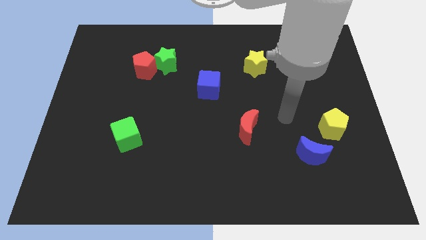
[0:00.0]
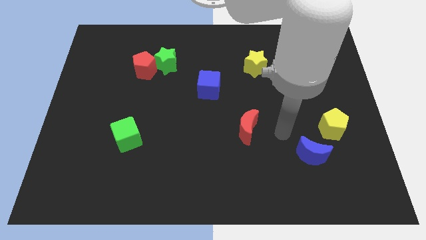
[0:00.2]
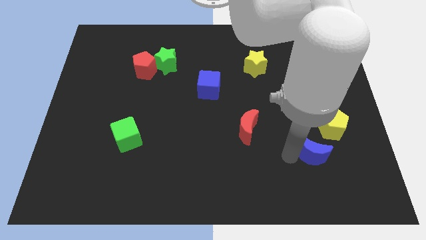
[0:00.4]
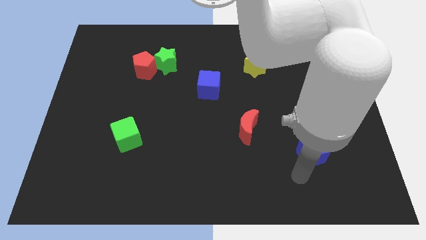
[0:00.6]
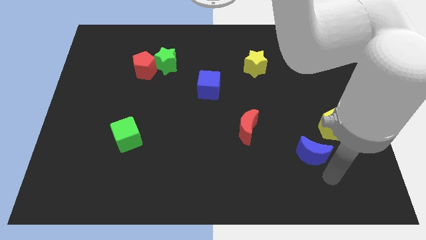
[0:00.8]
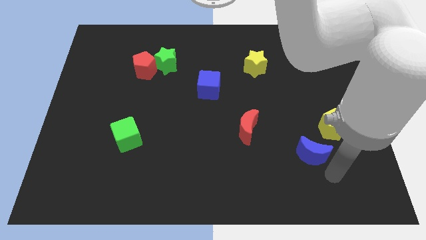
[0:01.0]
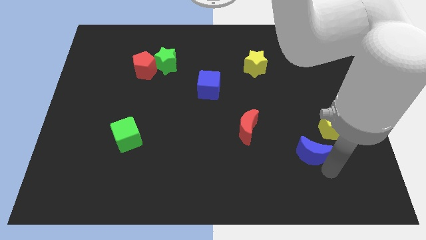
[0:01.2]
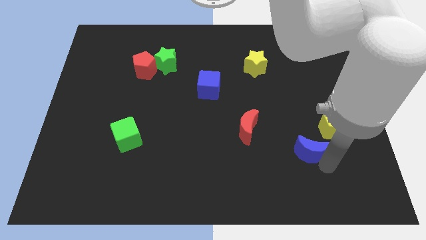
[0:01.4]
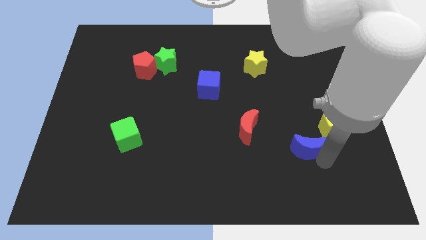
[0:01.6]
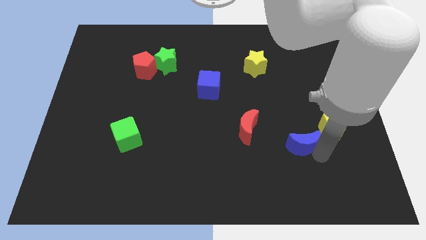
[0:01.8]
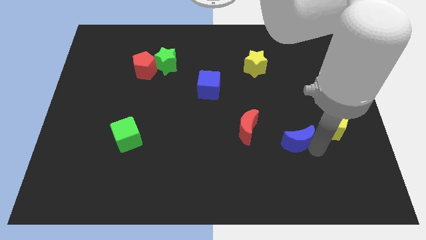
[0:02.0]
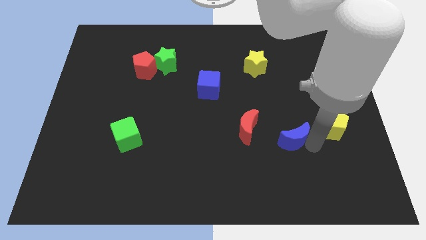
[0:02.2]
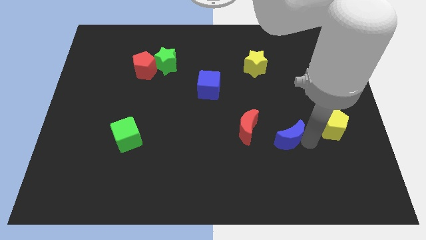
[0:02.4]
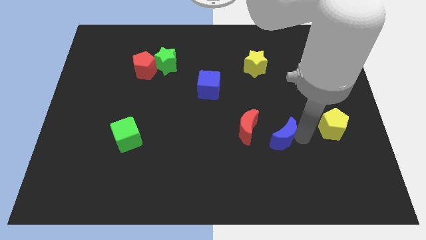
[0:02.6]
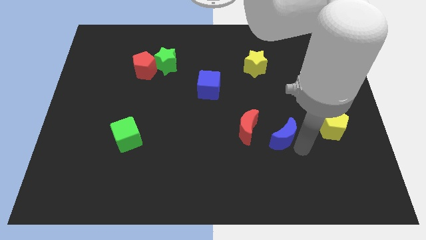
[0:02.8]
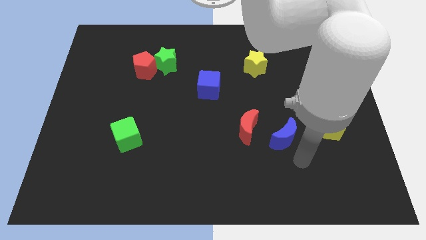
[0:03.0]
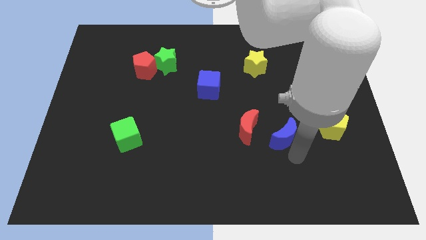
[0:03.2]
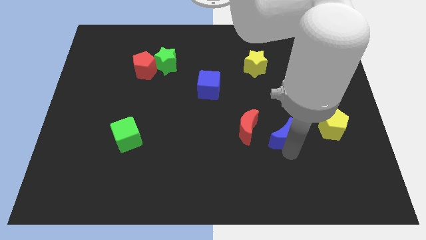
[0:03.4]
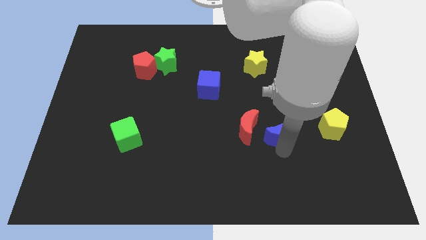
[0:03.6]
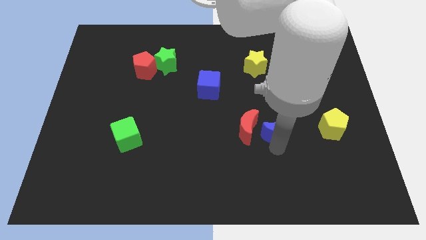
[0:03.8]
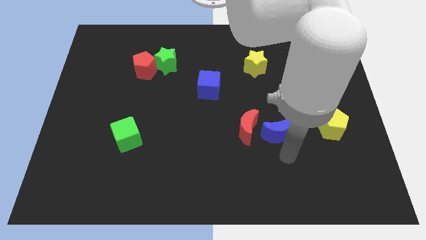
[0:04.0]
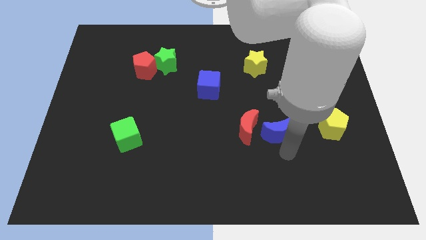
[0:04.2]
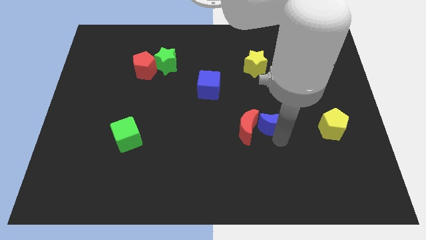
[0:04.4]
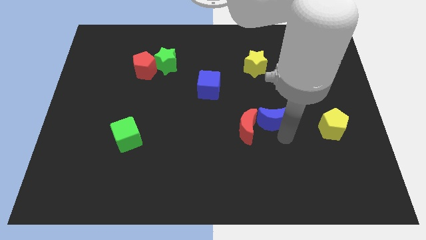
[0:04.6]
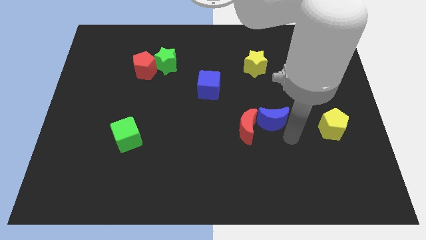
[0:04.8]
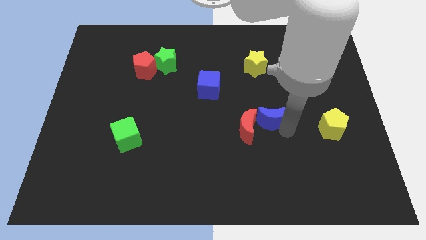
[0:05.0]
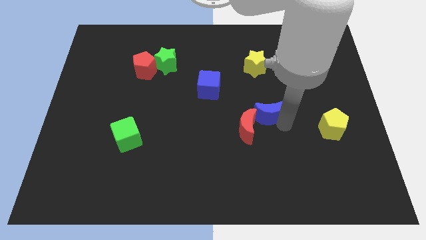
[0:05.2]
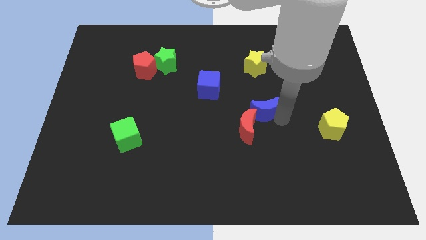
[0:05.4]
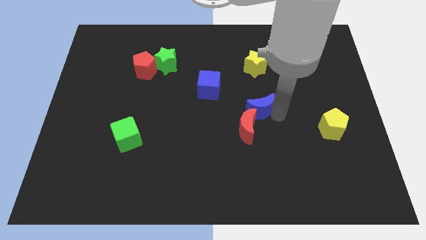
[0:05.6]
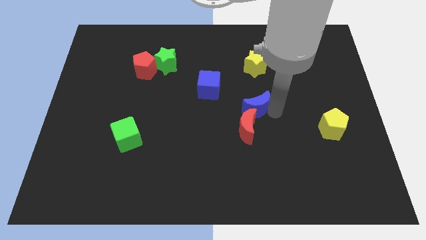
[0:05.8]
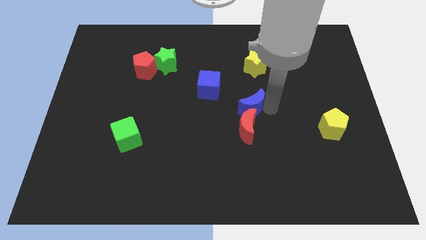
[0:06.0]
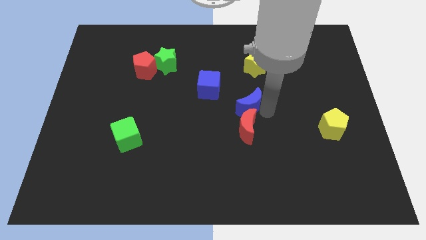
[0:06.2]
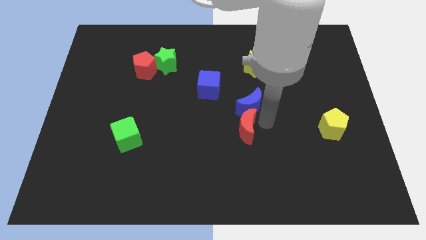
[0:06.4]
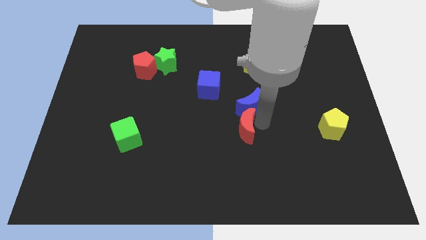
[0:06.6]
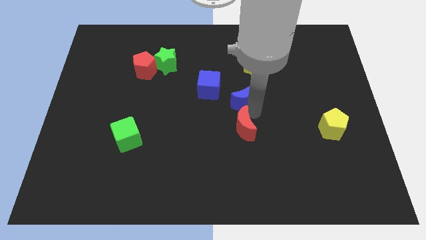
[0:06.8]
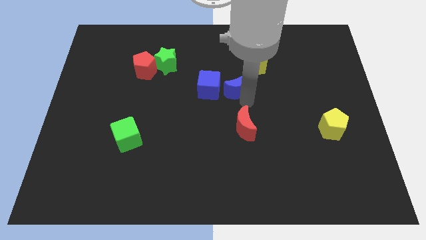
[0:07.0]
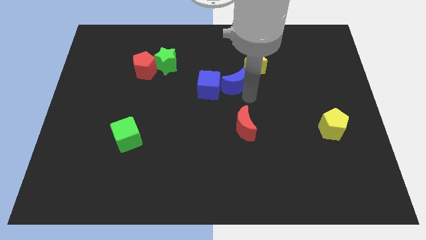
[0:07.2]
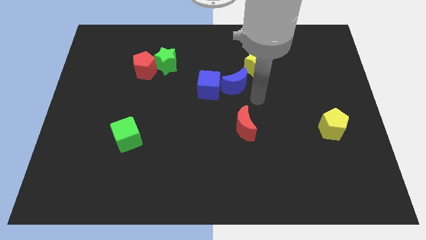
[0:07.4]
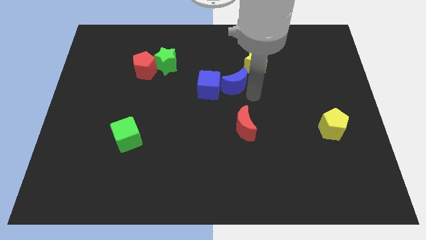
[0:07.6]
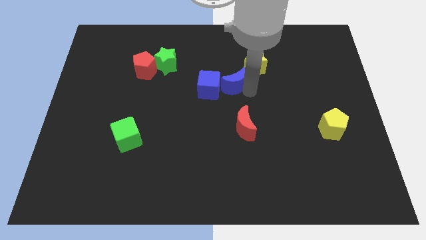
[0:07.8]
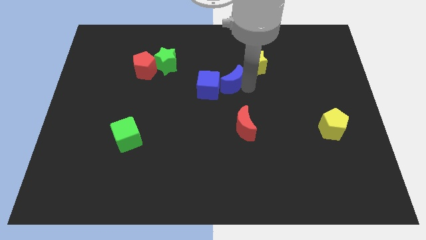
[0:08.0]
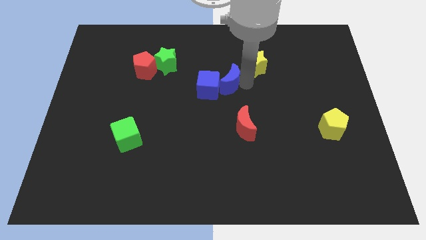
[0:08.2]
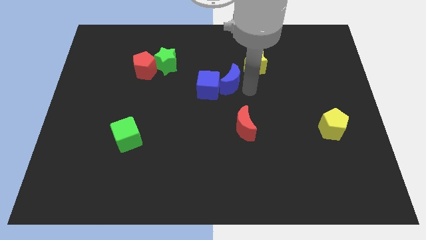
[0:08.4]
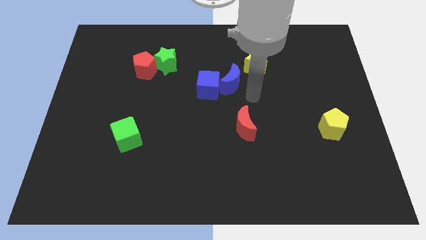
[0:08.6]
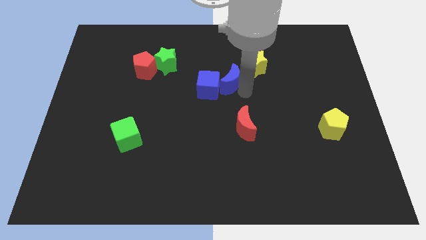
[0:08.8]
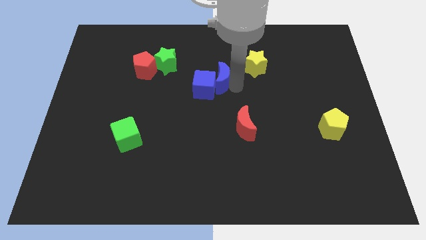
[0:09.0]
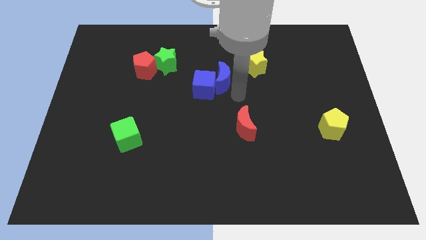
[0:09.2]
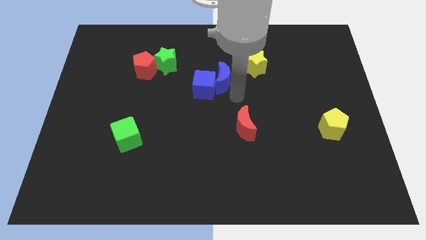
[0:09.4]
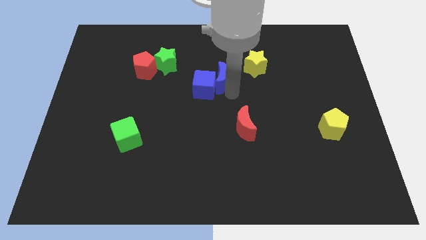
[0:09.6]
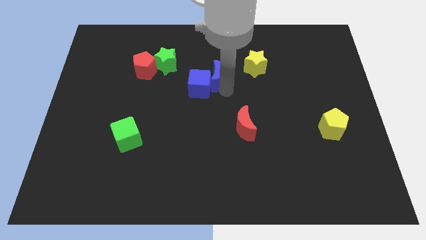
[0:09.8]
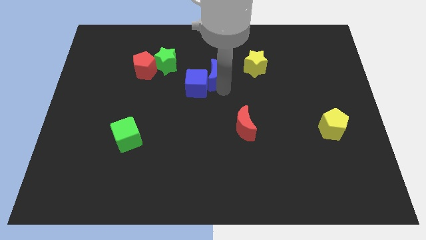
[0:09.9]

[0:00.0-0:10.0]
push the blue moon to the right of the green star

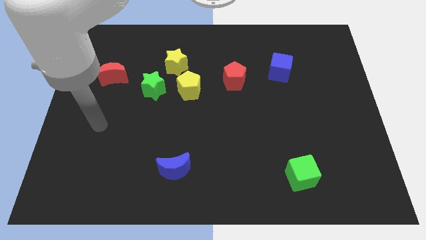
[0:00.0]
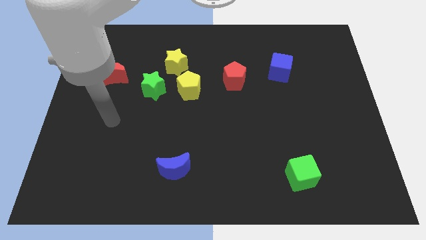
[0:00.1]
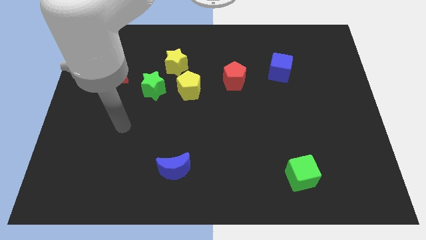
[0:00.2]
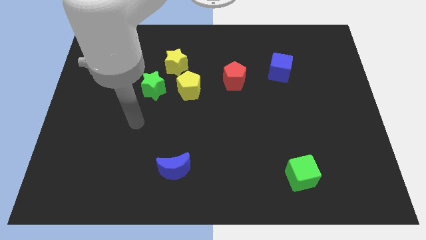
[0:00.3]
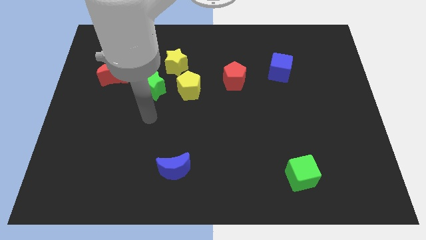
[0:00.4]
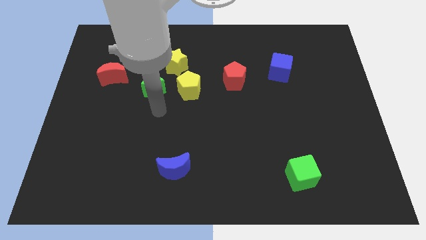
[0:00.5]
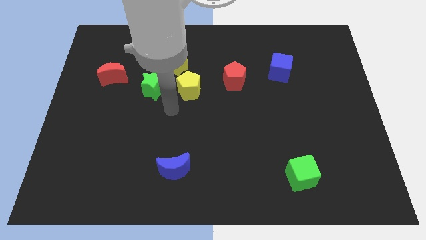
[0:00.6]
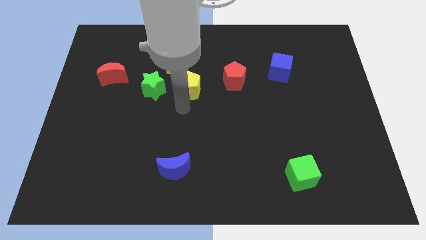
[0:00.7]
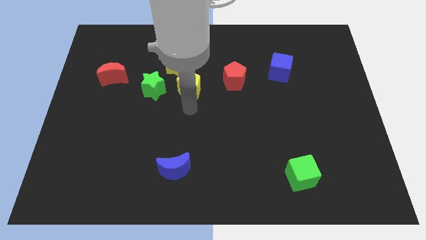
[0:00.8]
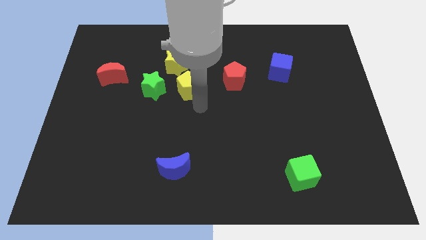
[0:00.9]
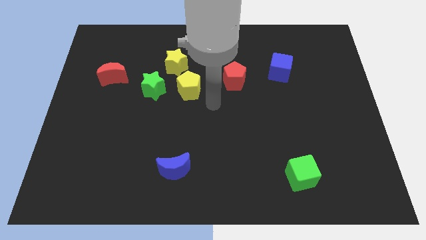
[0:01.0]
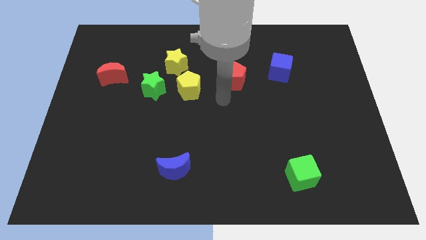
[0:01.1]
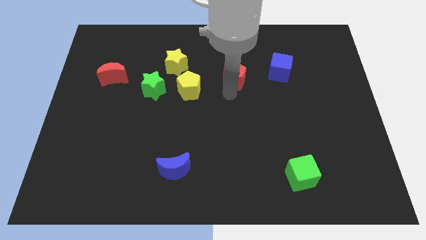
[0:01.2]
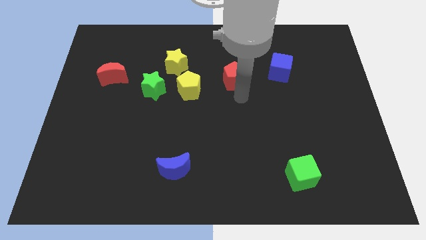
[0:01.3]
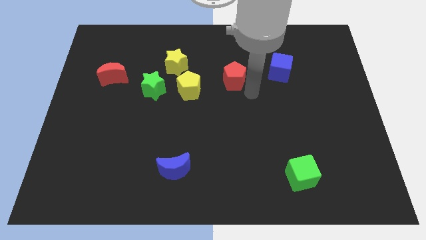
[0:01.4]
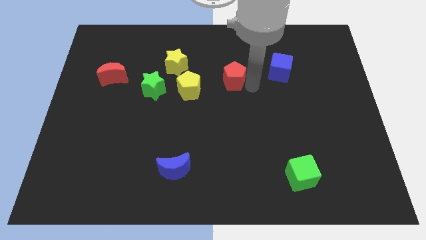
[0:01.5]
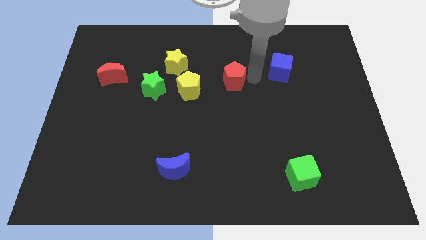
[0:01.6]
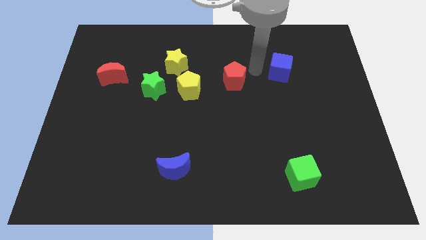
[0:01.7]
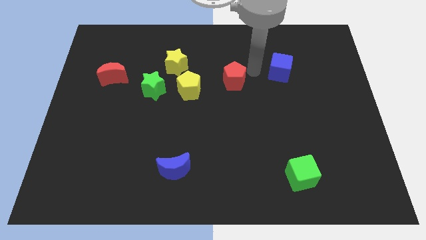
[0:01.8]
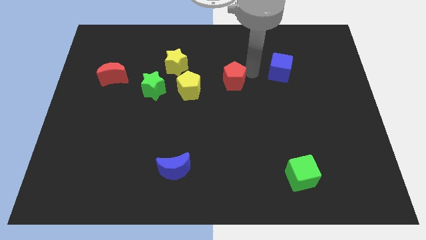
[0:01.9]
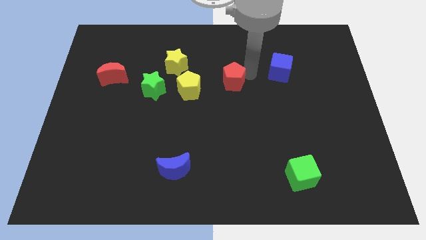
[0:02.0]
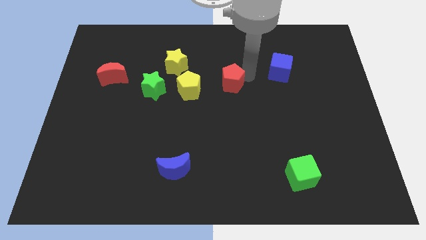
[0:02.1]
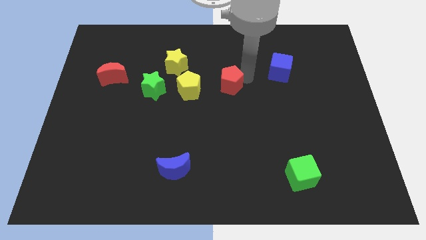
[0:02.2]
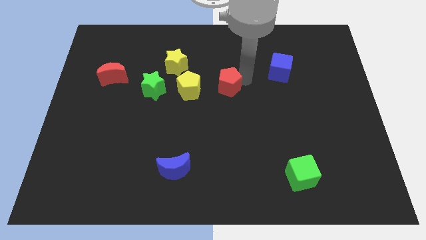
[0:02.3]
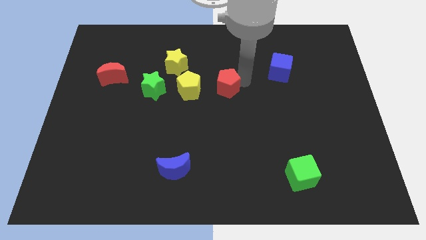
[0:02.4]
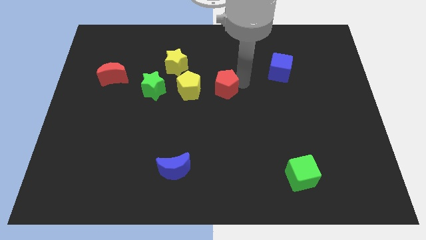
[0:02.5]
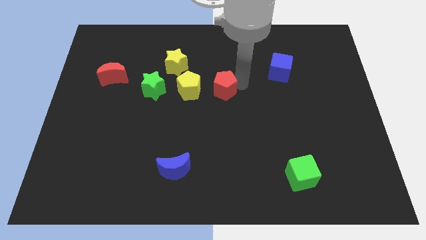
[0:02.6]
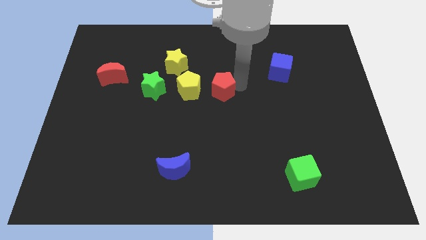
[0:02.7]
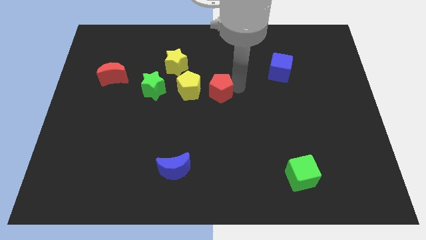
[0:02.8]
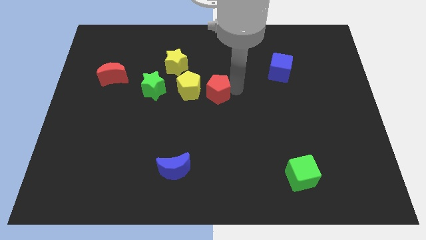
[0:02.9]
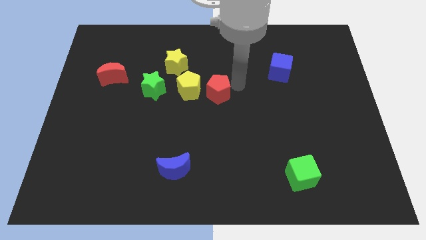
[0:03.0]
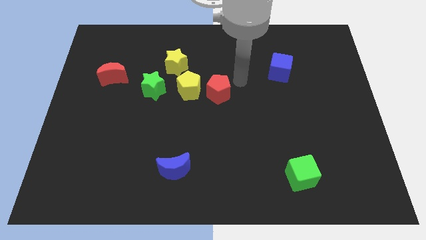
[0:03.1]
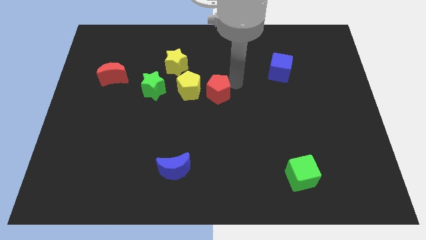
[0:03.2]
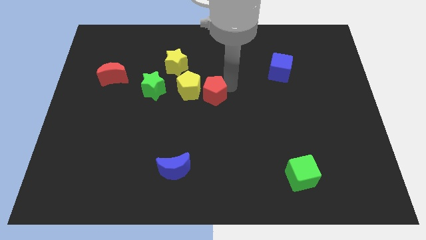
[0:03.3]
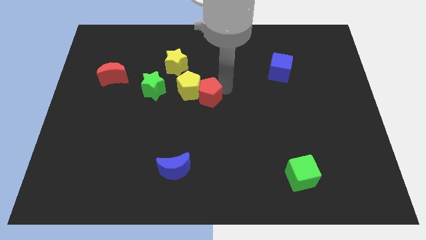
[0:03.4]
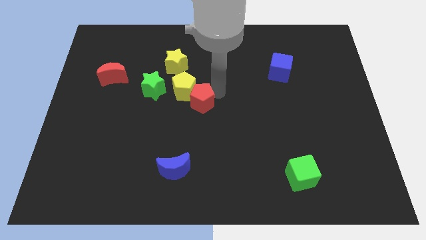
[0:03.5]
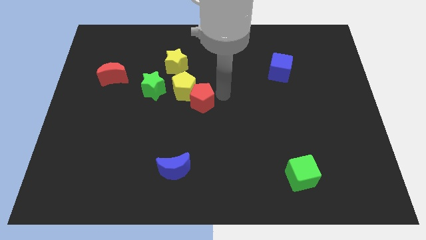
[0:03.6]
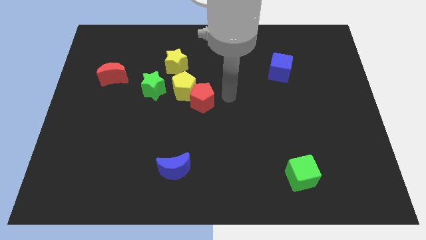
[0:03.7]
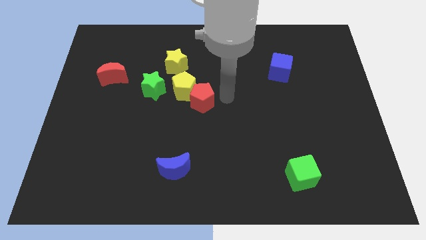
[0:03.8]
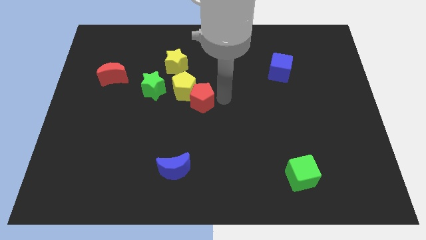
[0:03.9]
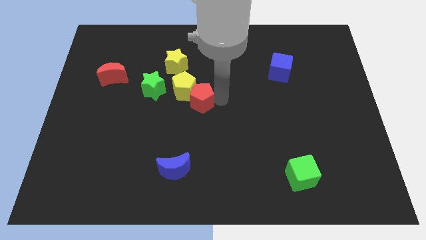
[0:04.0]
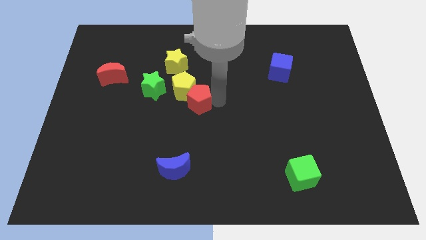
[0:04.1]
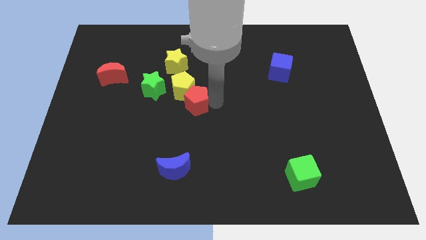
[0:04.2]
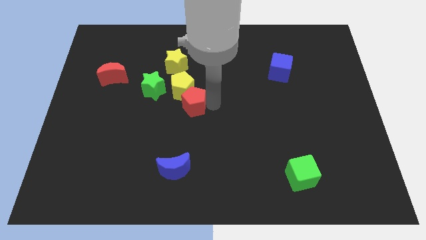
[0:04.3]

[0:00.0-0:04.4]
move the red pentagon to the bottom right side of the green star
